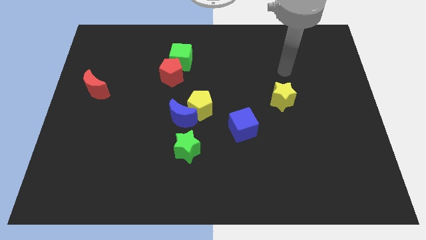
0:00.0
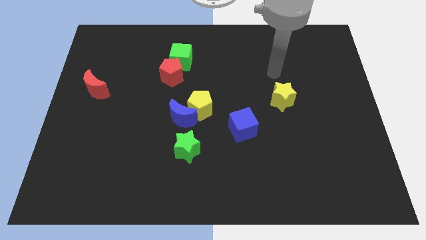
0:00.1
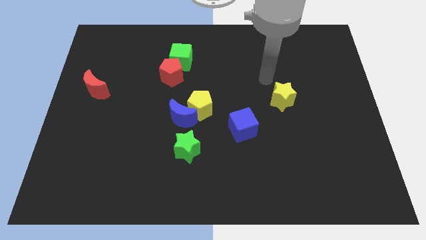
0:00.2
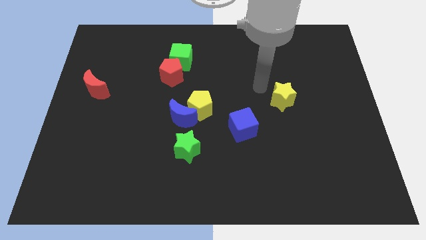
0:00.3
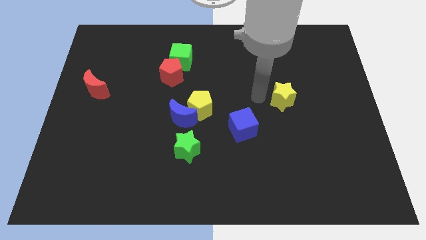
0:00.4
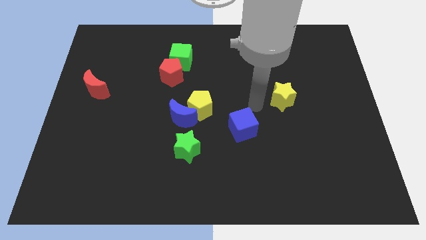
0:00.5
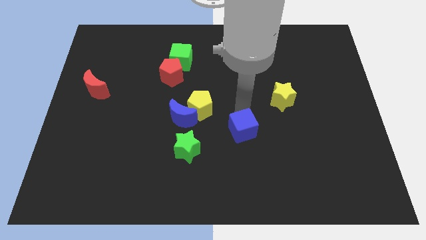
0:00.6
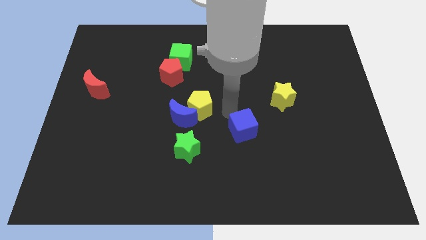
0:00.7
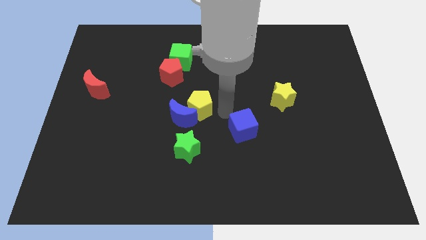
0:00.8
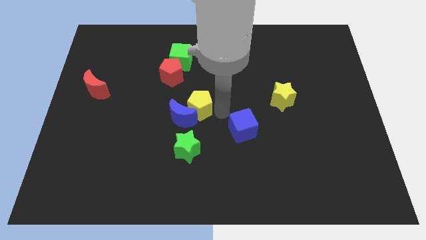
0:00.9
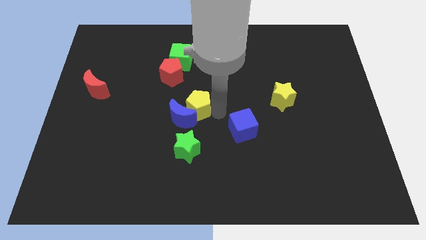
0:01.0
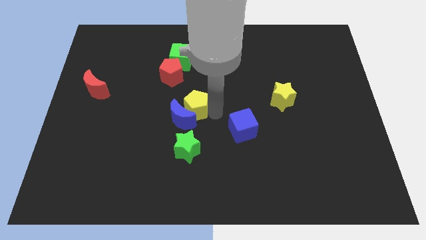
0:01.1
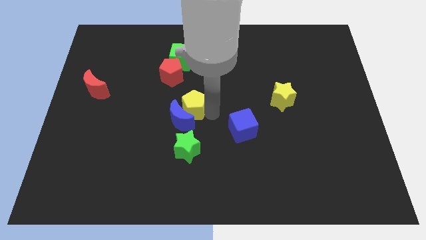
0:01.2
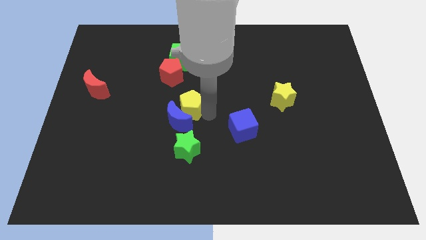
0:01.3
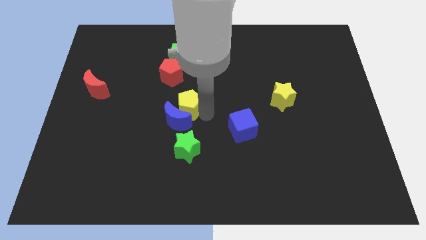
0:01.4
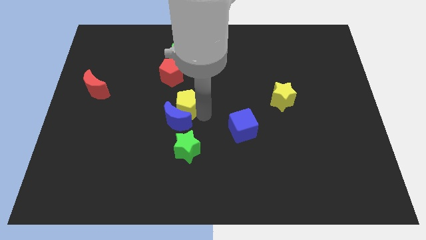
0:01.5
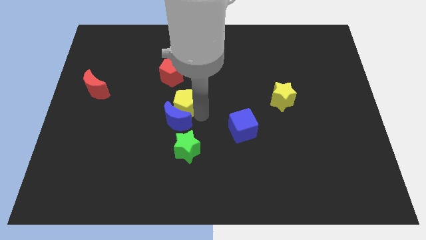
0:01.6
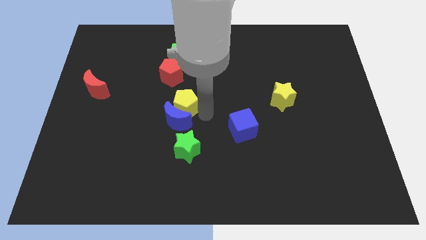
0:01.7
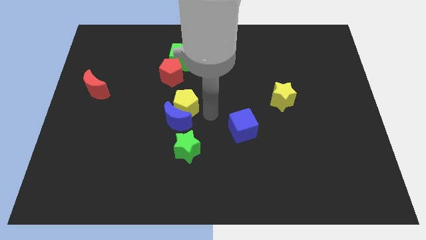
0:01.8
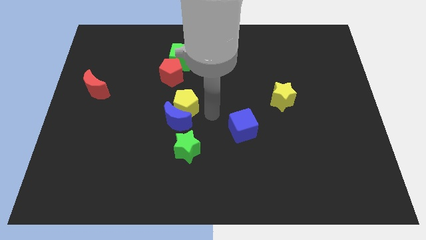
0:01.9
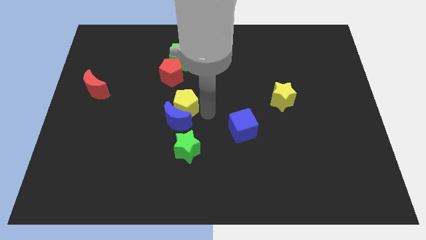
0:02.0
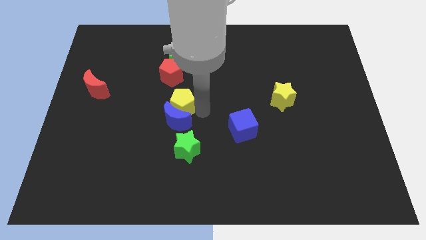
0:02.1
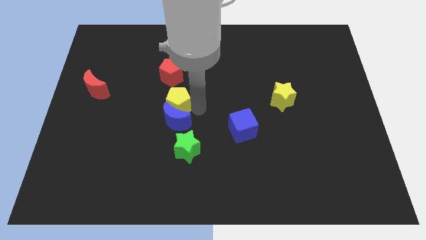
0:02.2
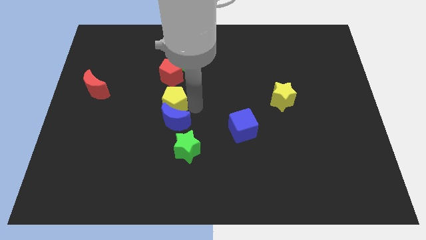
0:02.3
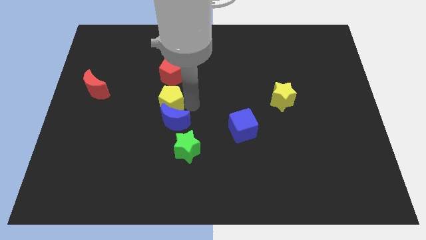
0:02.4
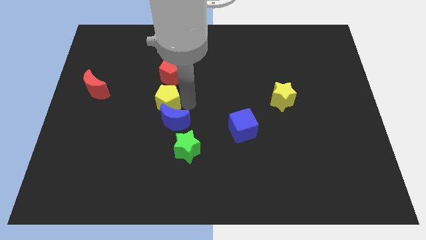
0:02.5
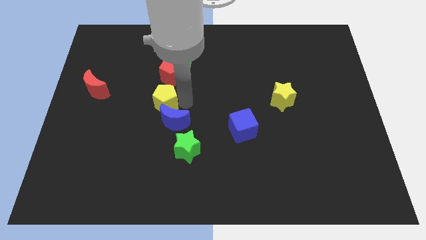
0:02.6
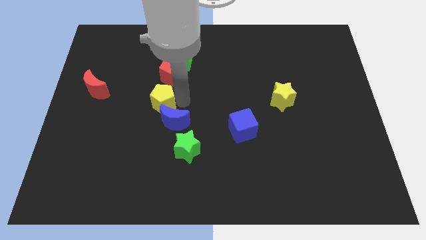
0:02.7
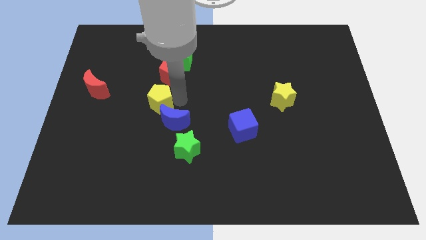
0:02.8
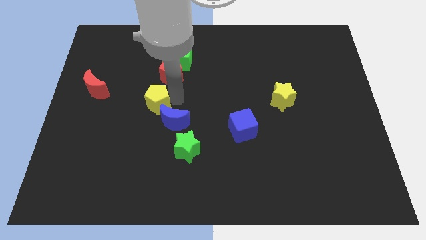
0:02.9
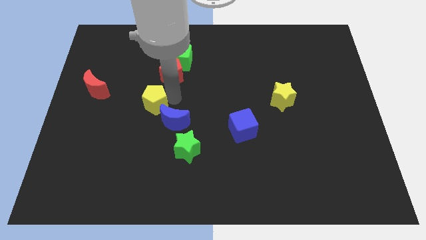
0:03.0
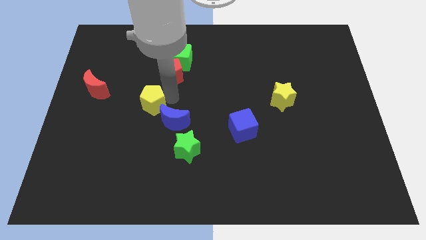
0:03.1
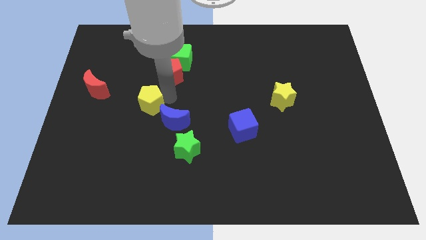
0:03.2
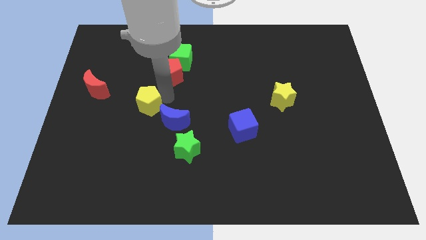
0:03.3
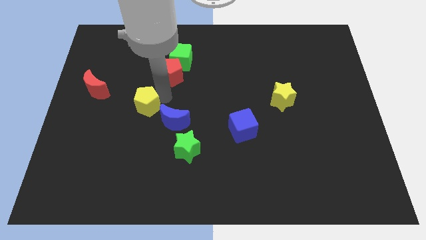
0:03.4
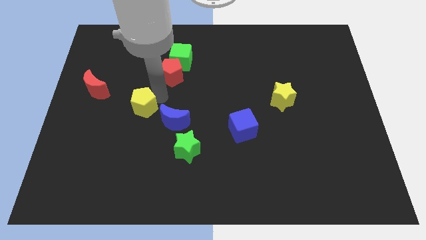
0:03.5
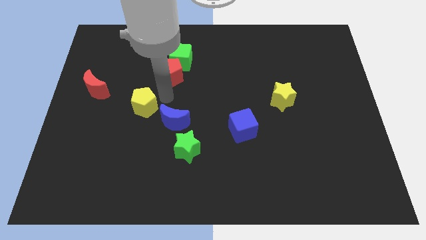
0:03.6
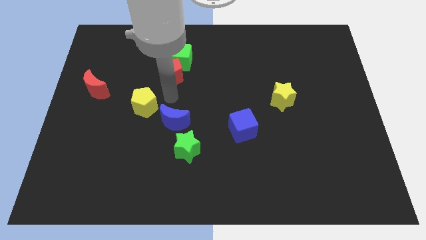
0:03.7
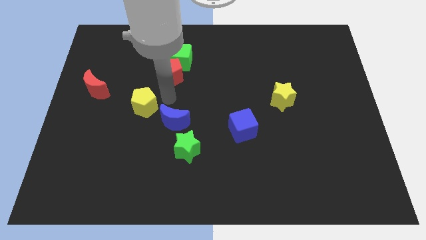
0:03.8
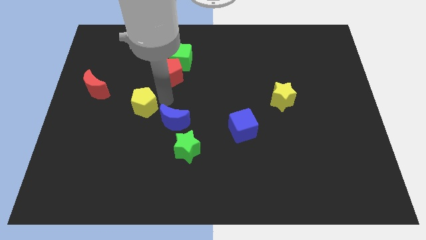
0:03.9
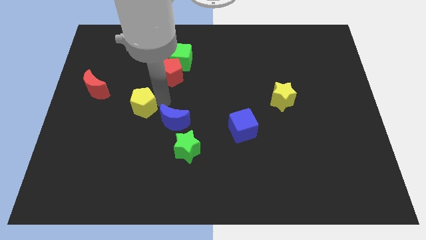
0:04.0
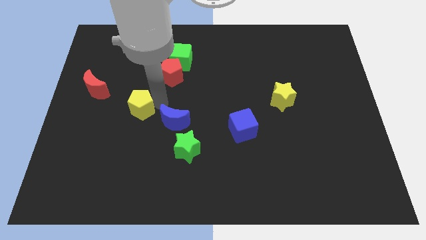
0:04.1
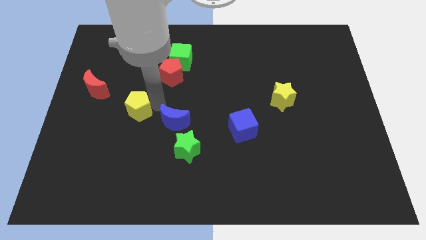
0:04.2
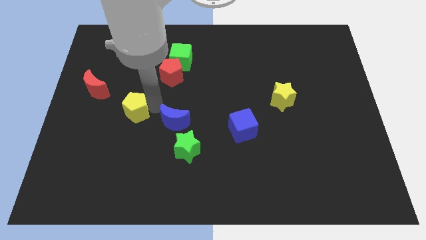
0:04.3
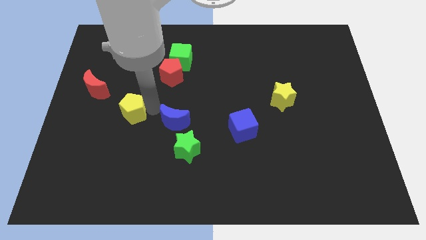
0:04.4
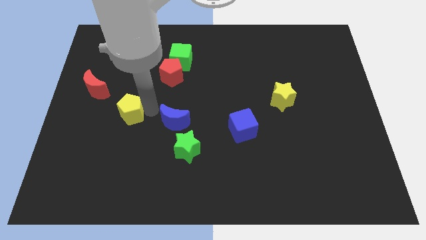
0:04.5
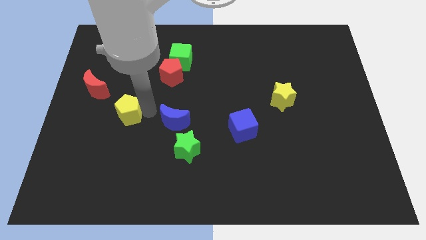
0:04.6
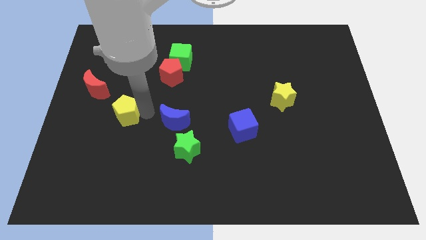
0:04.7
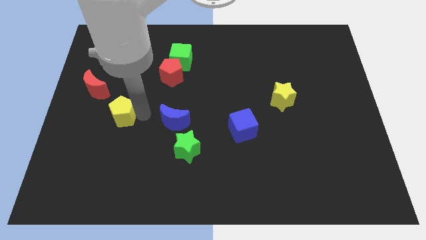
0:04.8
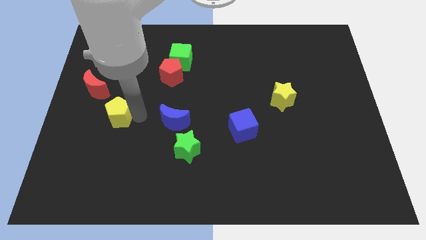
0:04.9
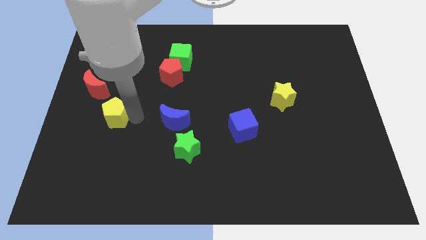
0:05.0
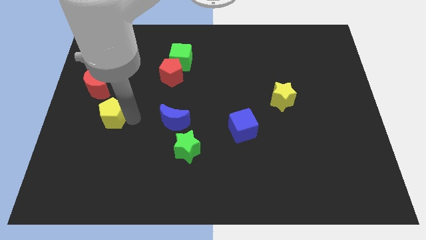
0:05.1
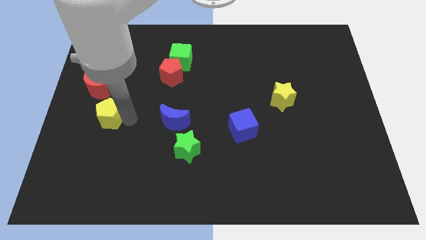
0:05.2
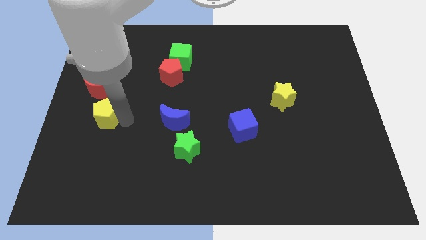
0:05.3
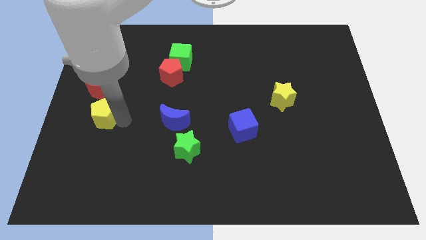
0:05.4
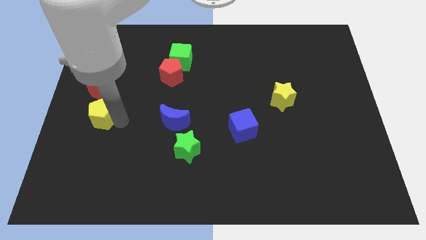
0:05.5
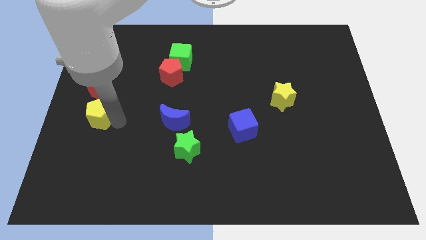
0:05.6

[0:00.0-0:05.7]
push the yellow pentagon to the left side
